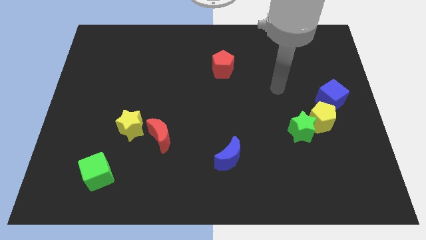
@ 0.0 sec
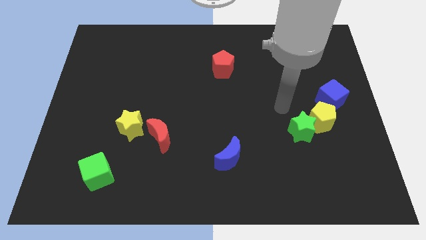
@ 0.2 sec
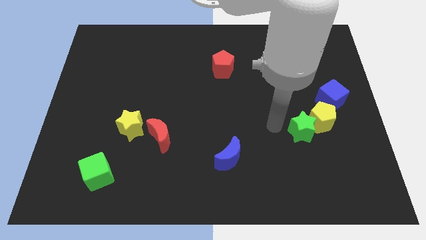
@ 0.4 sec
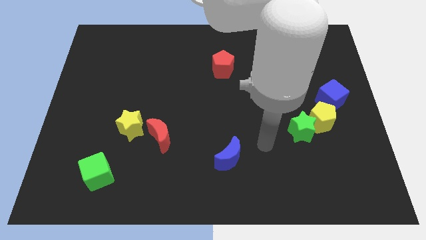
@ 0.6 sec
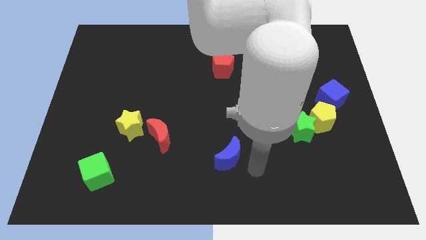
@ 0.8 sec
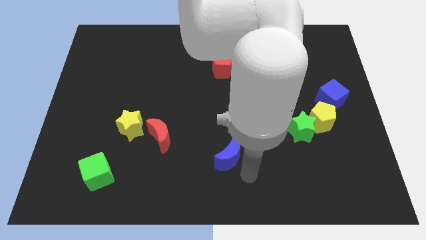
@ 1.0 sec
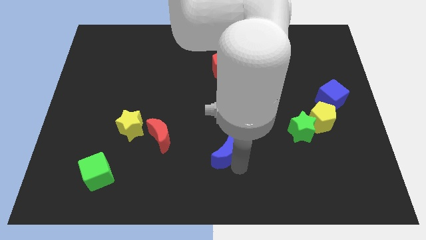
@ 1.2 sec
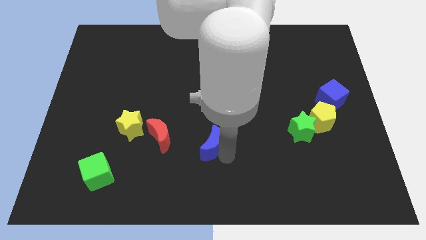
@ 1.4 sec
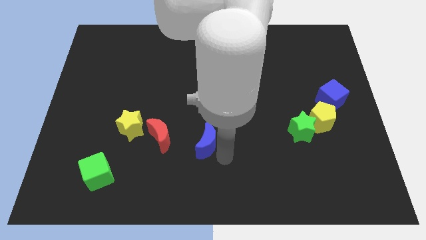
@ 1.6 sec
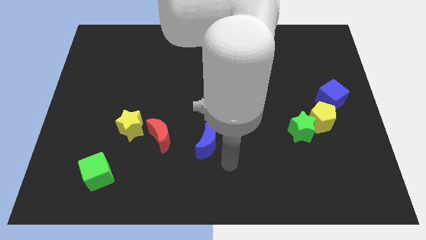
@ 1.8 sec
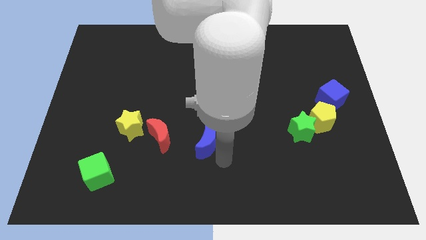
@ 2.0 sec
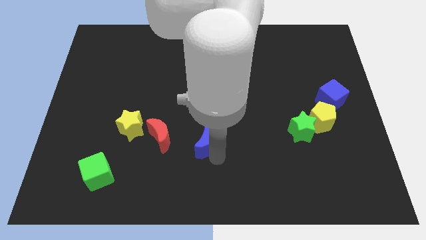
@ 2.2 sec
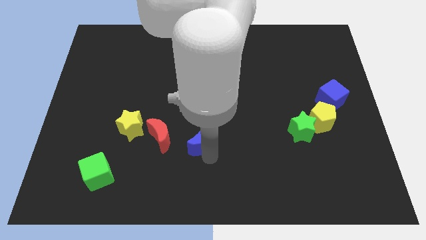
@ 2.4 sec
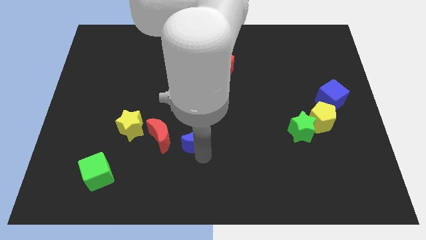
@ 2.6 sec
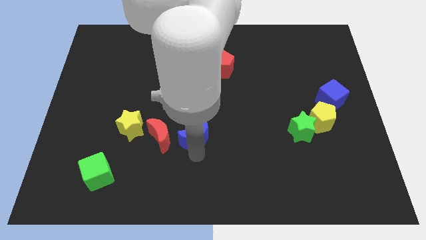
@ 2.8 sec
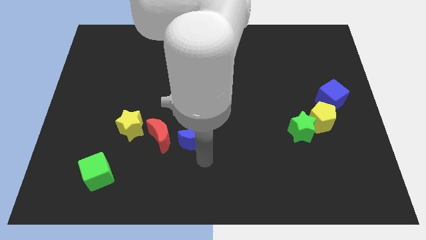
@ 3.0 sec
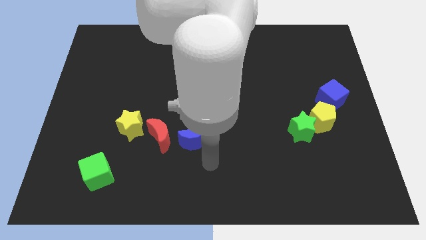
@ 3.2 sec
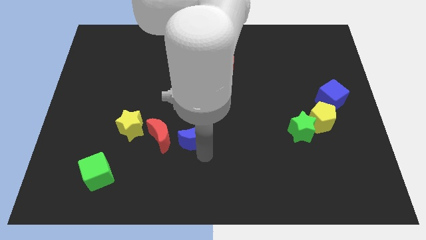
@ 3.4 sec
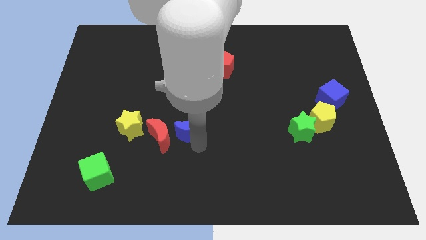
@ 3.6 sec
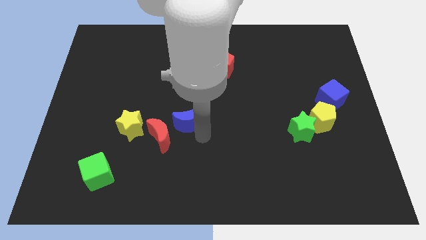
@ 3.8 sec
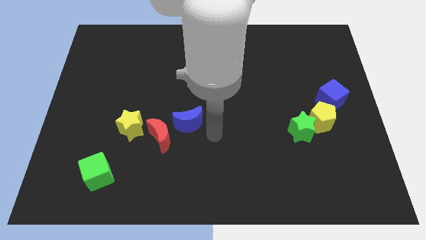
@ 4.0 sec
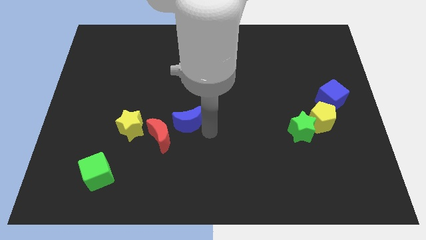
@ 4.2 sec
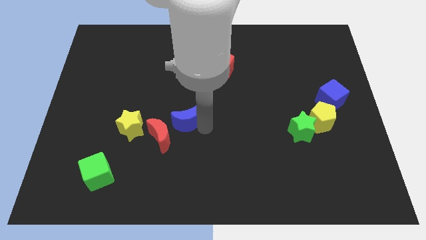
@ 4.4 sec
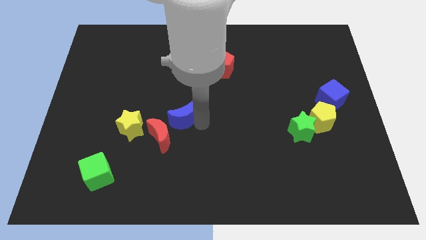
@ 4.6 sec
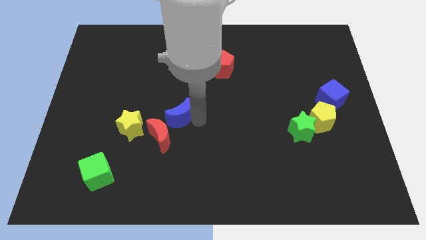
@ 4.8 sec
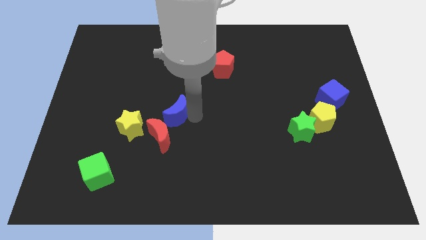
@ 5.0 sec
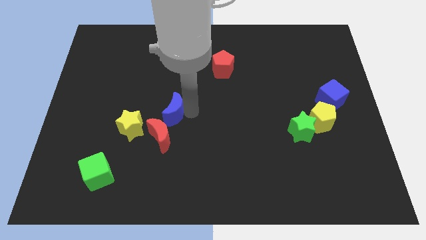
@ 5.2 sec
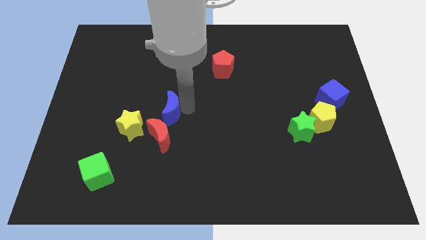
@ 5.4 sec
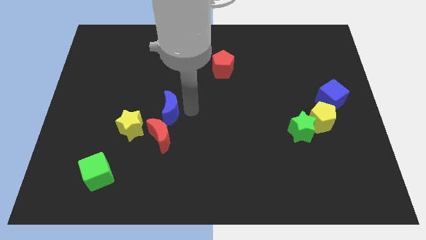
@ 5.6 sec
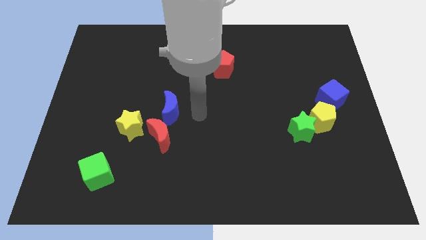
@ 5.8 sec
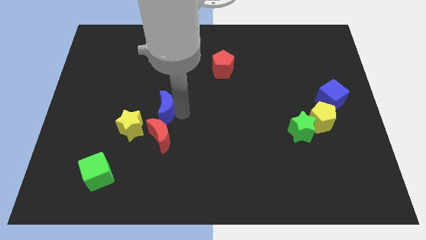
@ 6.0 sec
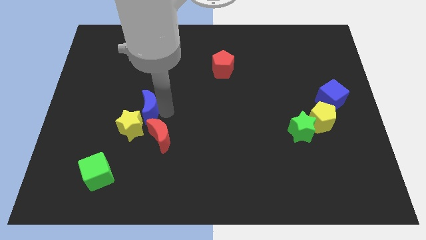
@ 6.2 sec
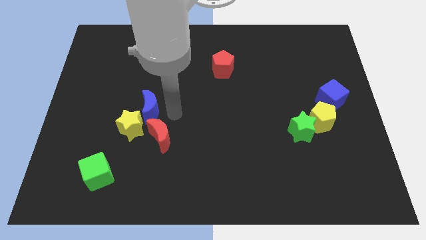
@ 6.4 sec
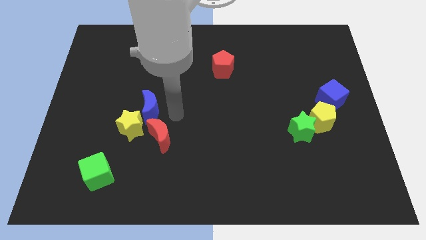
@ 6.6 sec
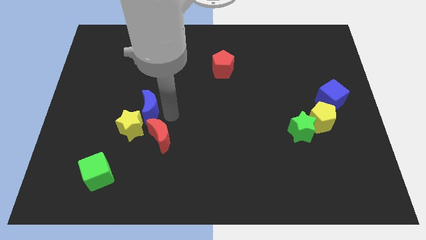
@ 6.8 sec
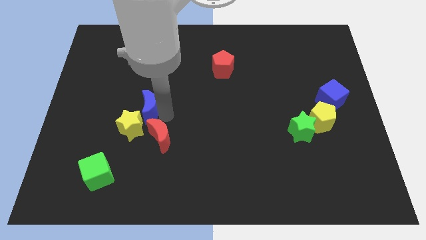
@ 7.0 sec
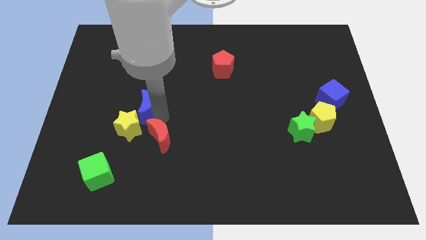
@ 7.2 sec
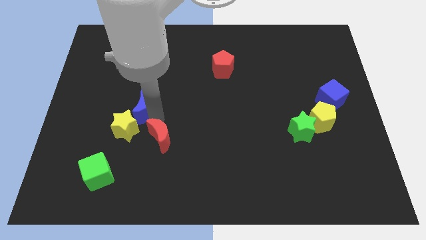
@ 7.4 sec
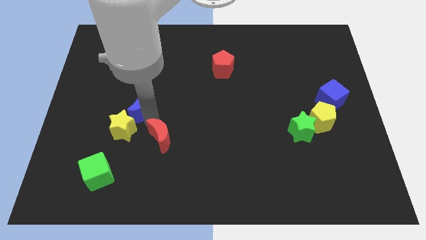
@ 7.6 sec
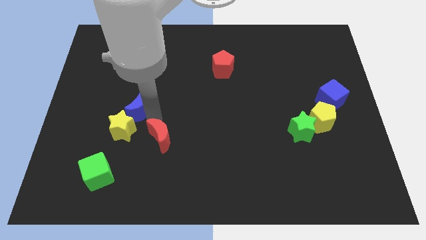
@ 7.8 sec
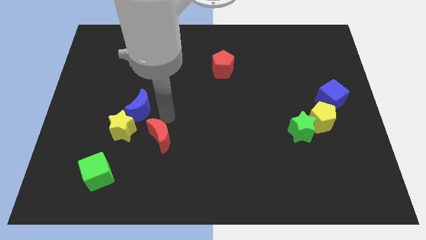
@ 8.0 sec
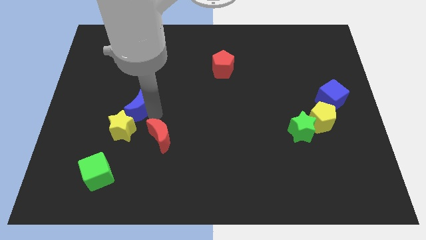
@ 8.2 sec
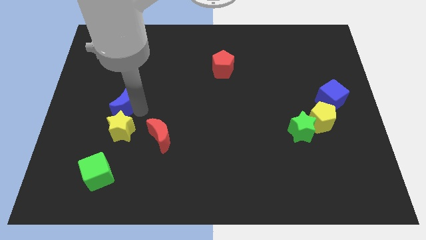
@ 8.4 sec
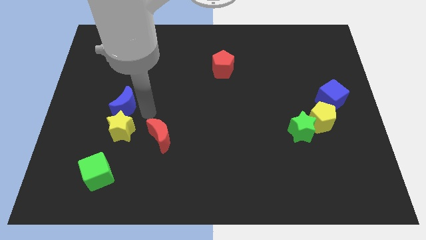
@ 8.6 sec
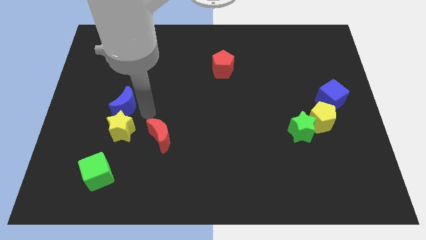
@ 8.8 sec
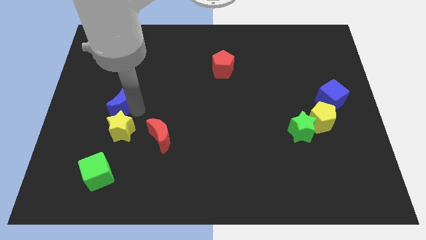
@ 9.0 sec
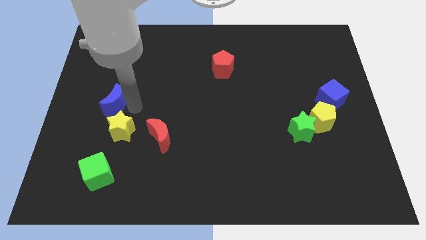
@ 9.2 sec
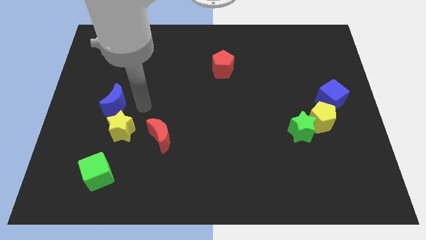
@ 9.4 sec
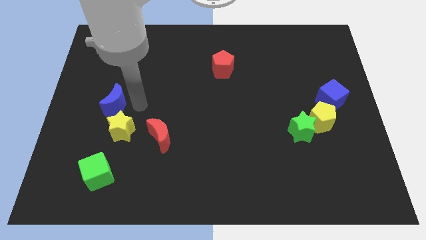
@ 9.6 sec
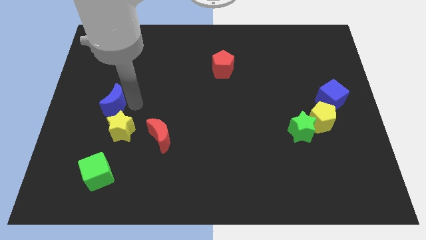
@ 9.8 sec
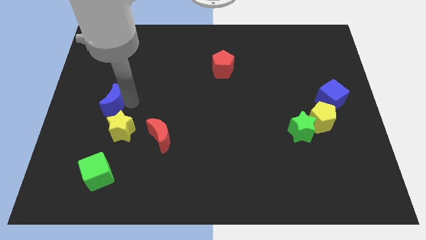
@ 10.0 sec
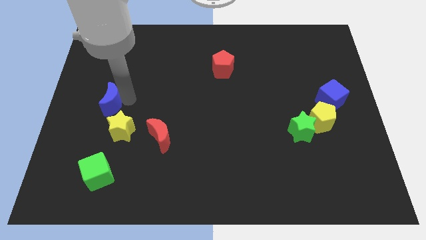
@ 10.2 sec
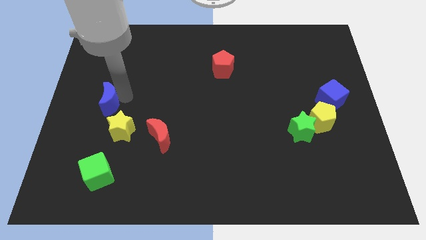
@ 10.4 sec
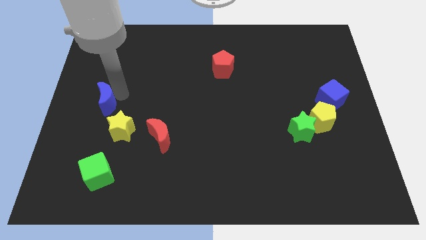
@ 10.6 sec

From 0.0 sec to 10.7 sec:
slide the blue moon to the left side

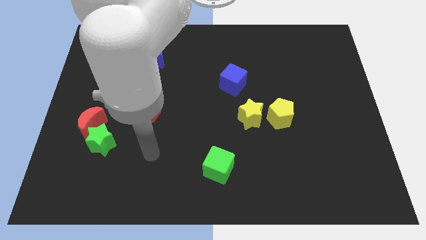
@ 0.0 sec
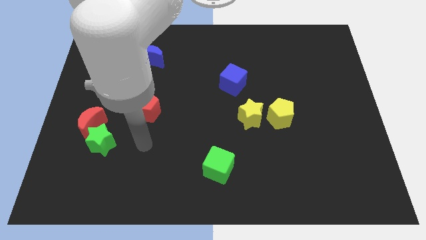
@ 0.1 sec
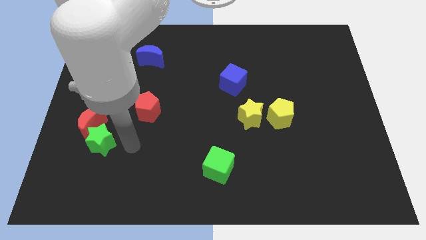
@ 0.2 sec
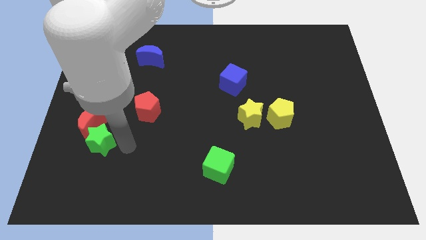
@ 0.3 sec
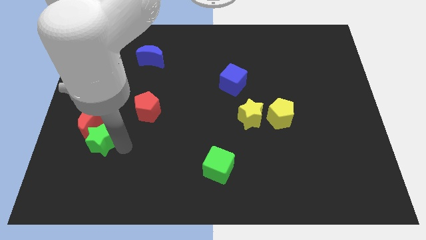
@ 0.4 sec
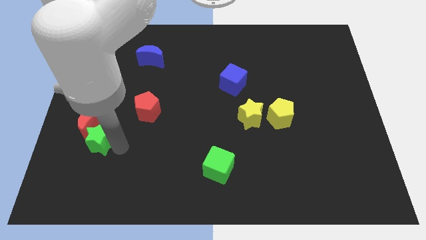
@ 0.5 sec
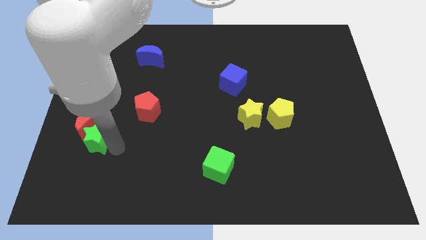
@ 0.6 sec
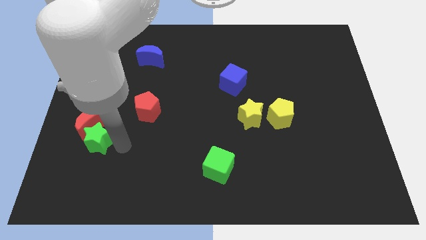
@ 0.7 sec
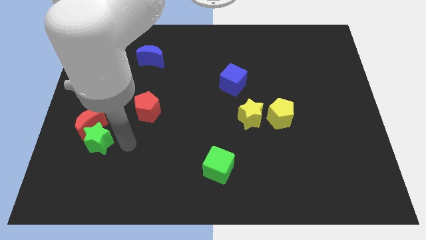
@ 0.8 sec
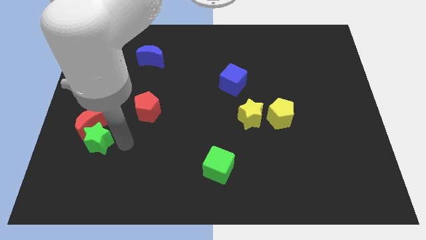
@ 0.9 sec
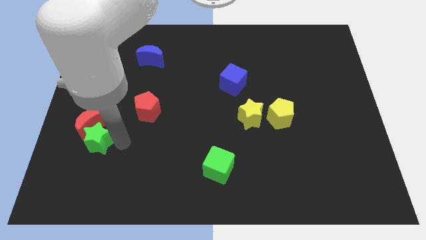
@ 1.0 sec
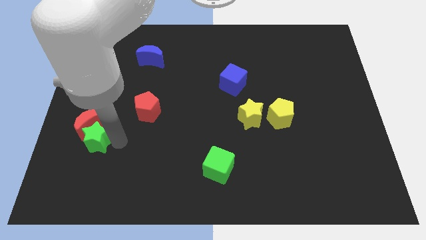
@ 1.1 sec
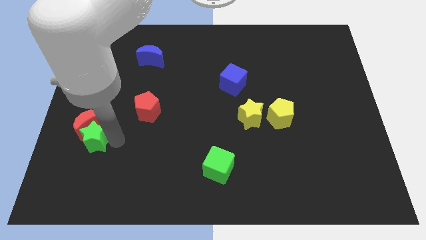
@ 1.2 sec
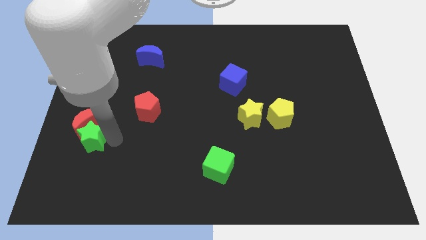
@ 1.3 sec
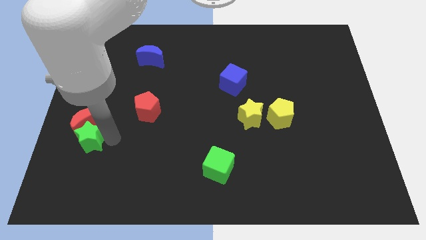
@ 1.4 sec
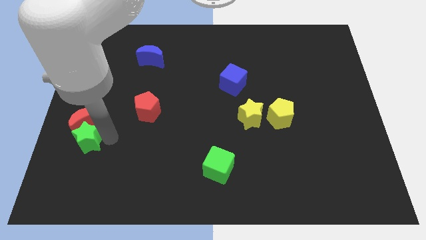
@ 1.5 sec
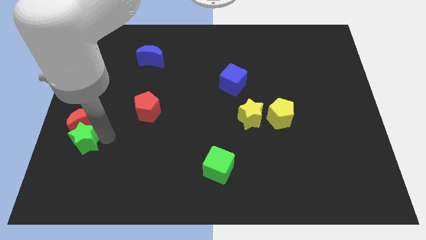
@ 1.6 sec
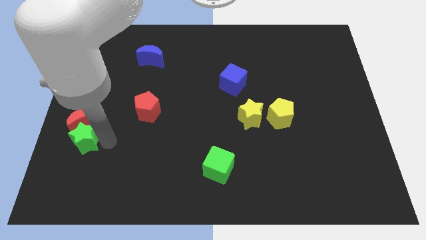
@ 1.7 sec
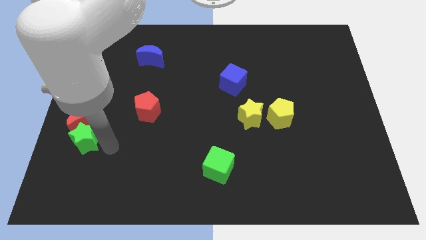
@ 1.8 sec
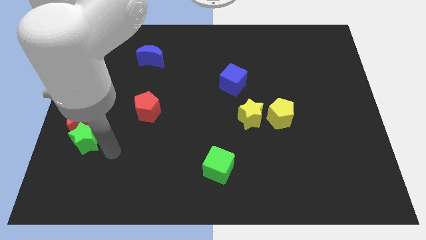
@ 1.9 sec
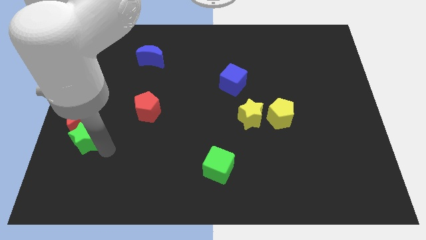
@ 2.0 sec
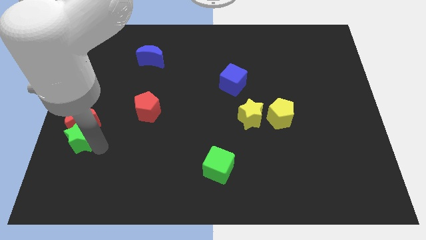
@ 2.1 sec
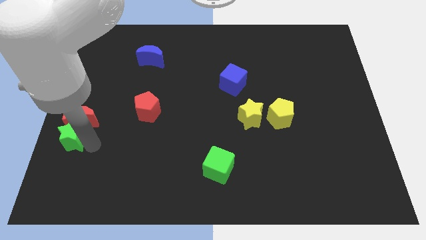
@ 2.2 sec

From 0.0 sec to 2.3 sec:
put the green star to the left side
